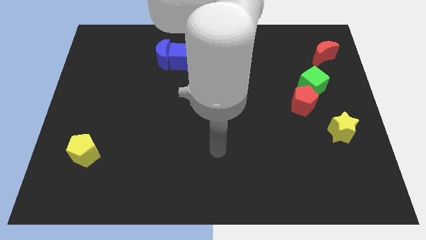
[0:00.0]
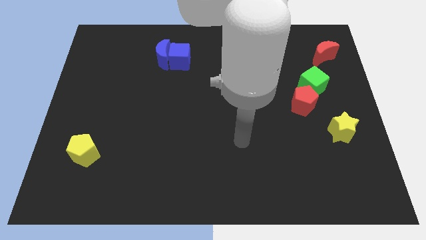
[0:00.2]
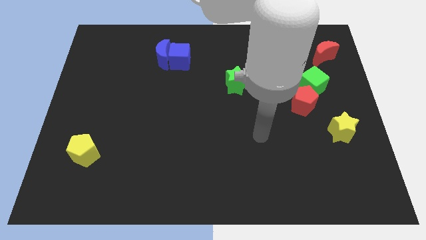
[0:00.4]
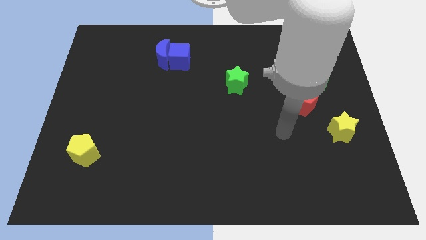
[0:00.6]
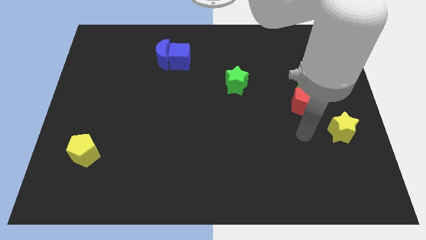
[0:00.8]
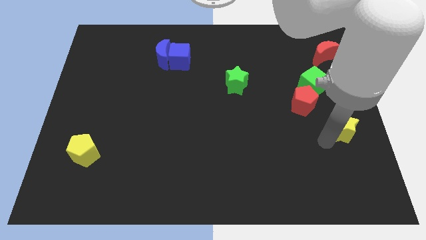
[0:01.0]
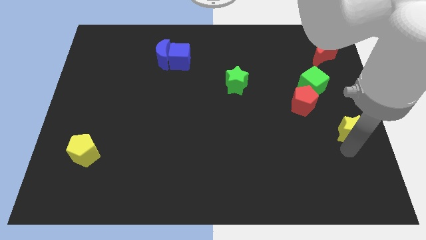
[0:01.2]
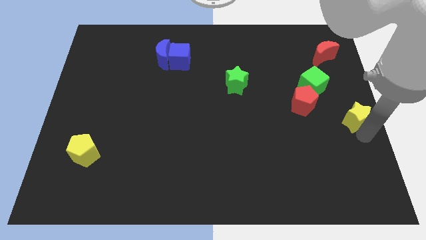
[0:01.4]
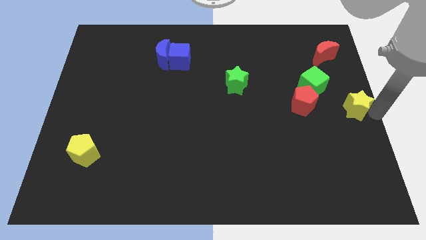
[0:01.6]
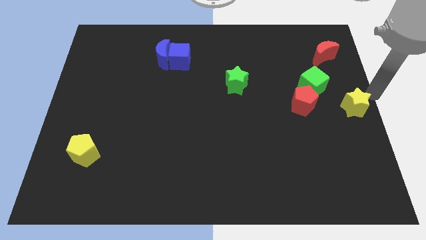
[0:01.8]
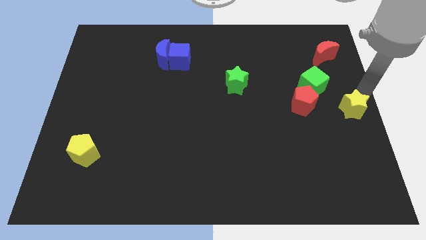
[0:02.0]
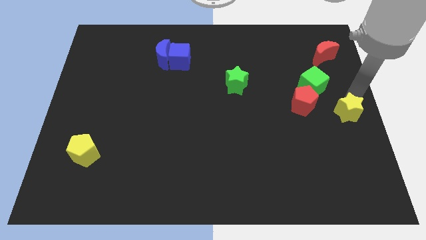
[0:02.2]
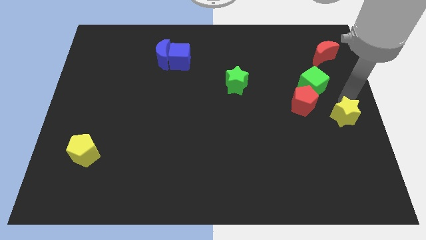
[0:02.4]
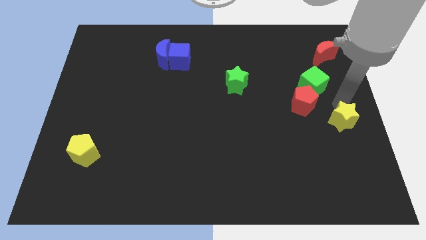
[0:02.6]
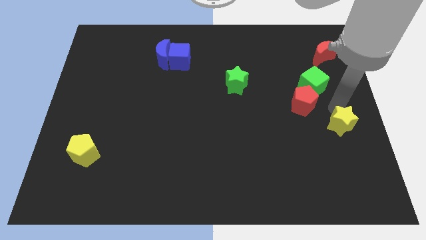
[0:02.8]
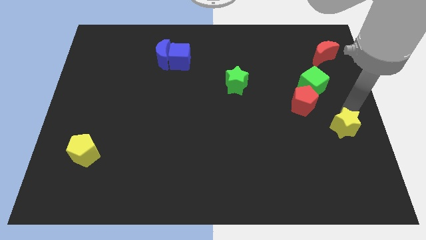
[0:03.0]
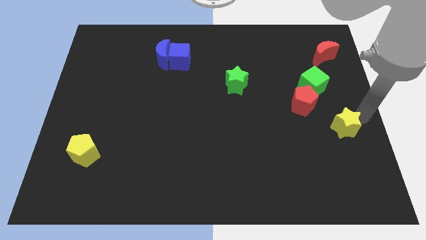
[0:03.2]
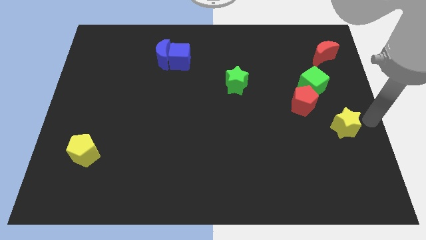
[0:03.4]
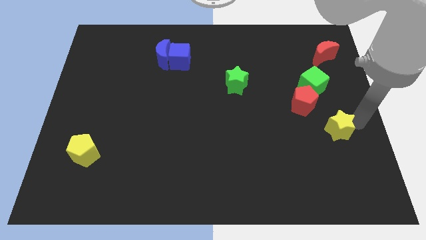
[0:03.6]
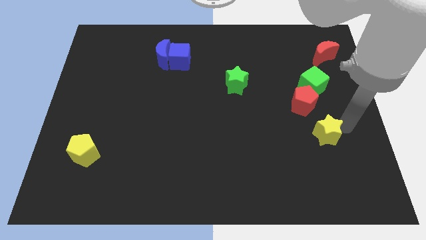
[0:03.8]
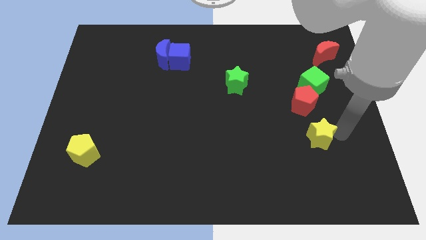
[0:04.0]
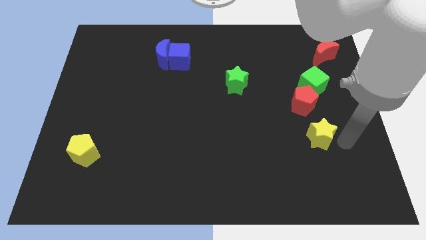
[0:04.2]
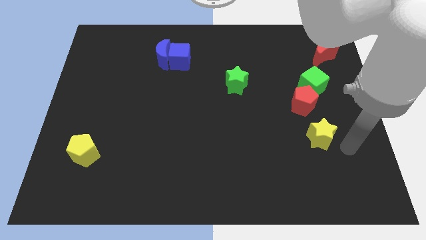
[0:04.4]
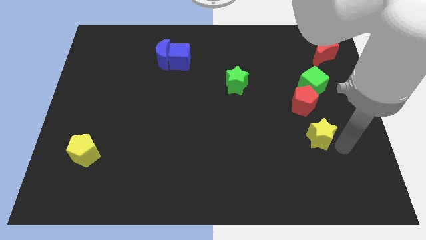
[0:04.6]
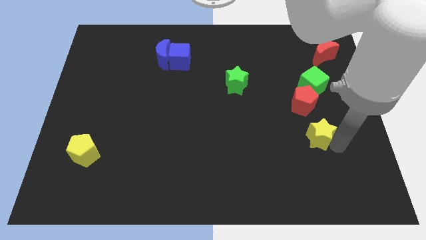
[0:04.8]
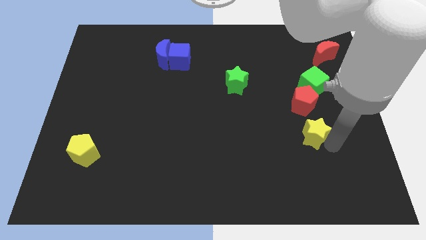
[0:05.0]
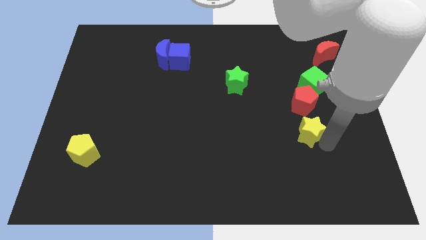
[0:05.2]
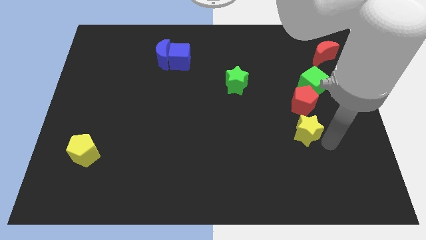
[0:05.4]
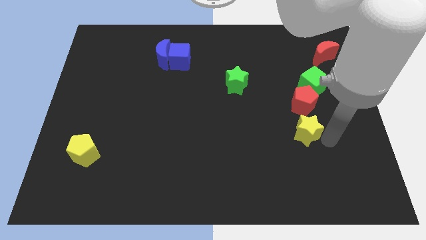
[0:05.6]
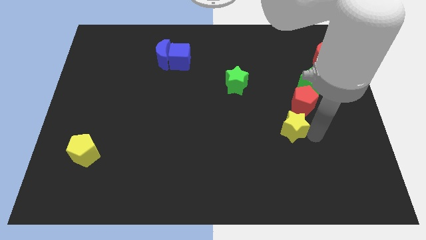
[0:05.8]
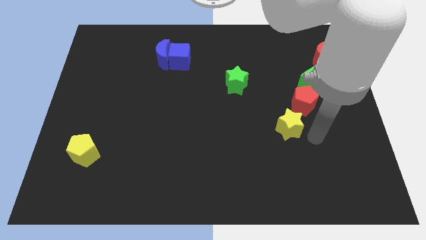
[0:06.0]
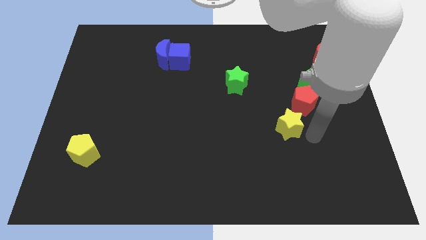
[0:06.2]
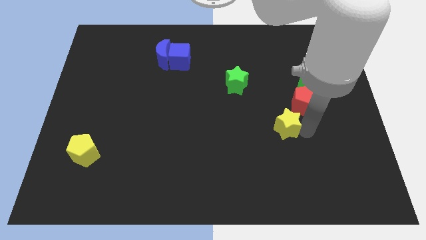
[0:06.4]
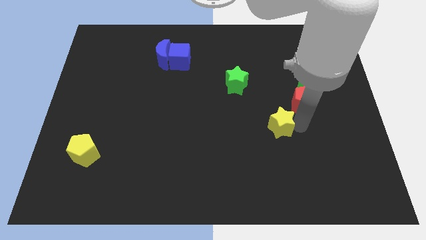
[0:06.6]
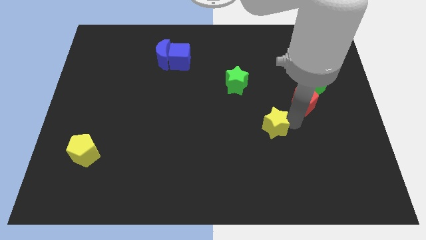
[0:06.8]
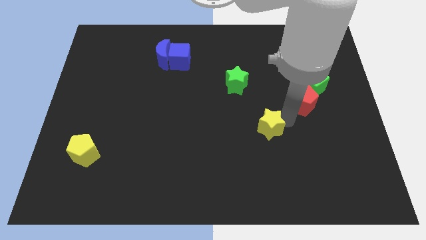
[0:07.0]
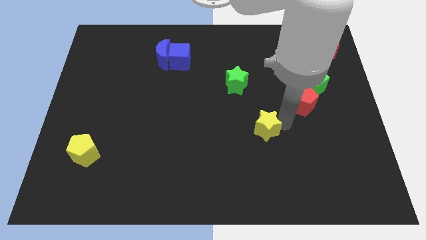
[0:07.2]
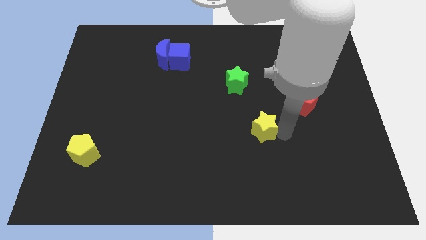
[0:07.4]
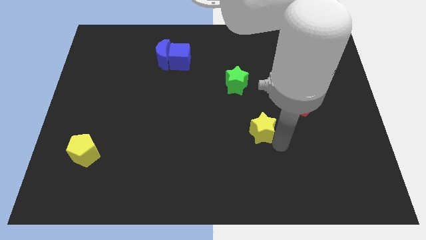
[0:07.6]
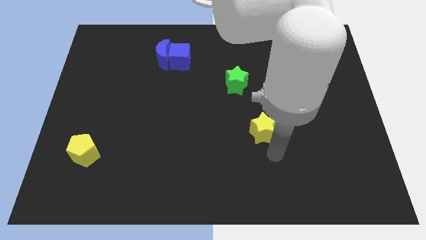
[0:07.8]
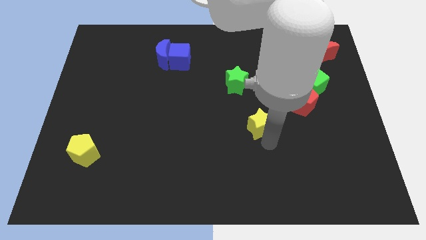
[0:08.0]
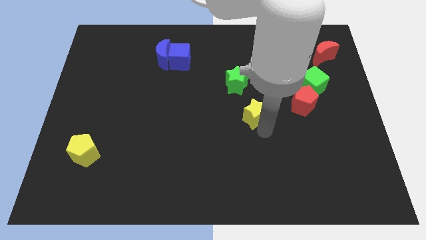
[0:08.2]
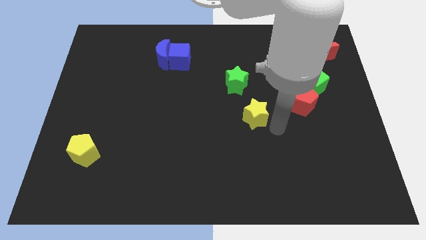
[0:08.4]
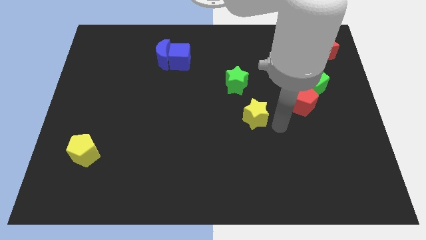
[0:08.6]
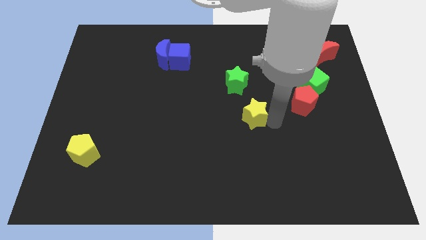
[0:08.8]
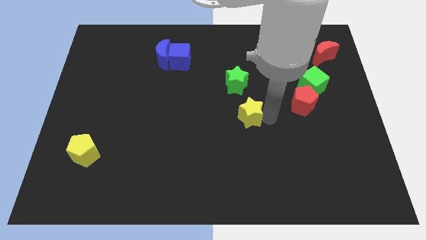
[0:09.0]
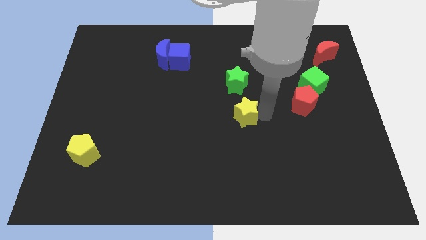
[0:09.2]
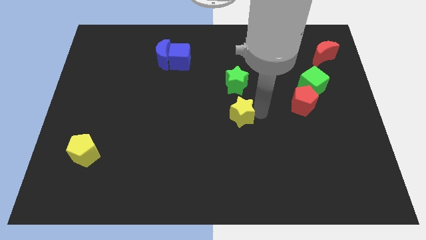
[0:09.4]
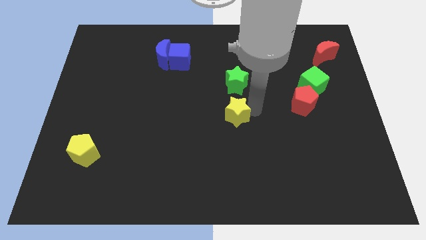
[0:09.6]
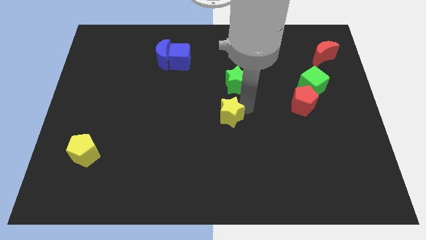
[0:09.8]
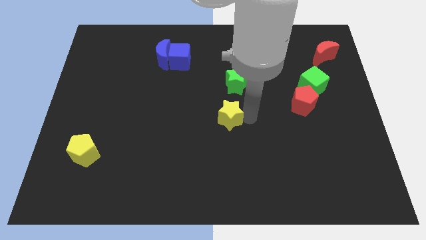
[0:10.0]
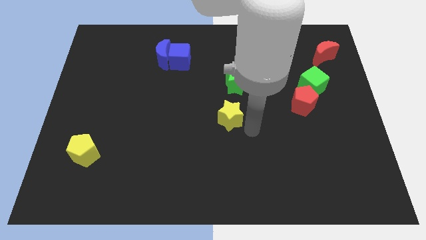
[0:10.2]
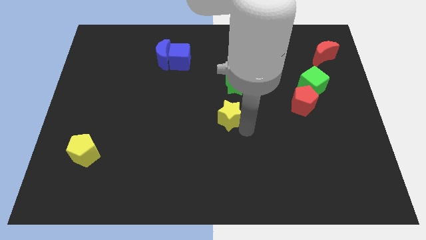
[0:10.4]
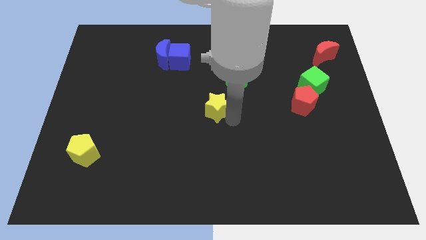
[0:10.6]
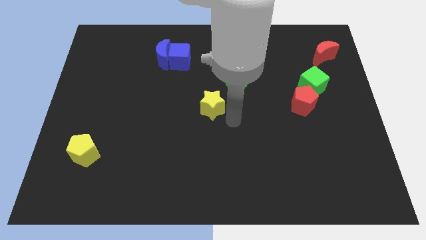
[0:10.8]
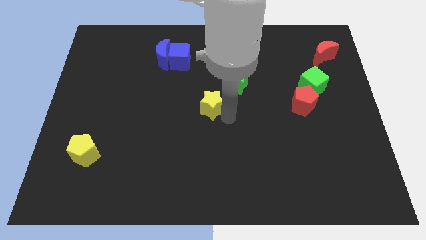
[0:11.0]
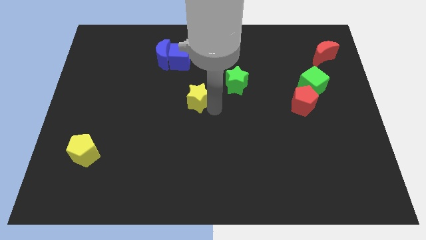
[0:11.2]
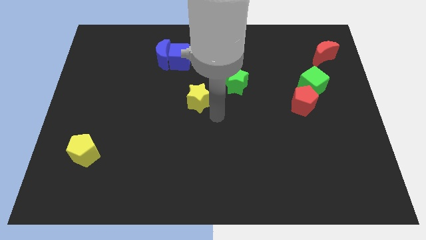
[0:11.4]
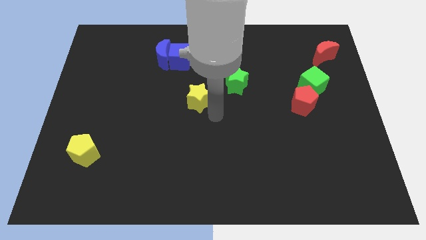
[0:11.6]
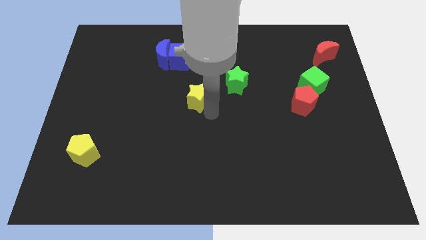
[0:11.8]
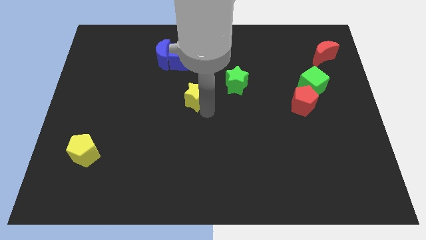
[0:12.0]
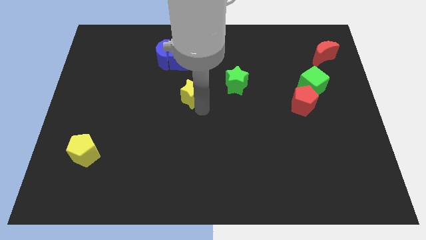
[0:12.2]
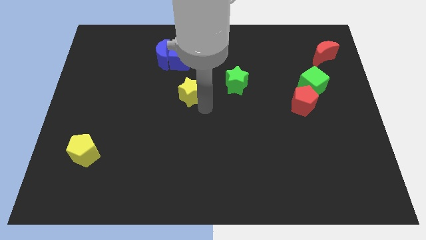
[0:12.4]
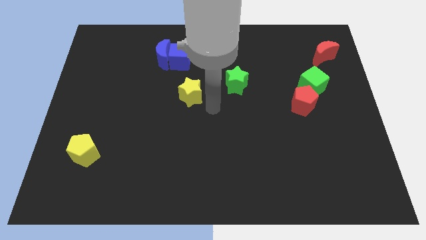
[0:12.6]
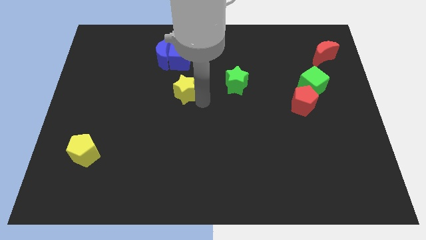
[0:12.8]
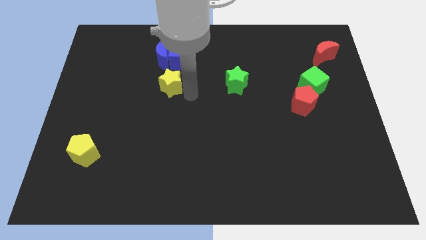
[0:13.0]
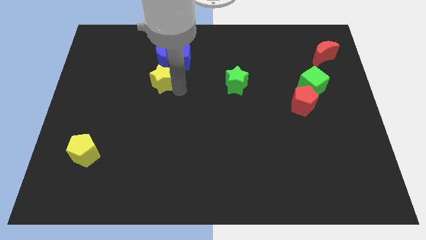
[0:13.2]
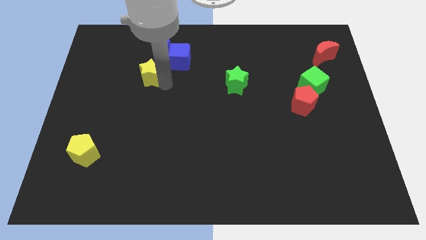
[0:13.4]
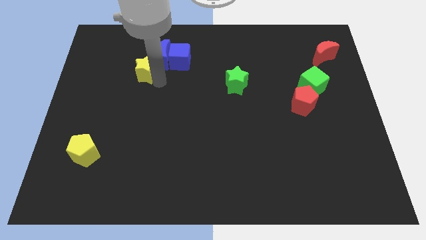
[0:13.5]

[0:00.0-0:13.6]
slide the yellow star left of the blue cube

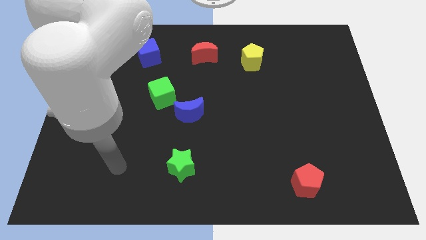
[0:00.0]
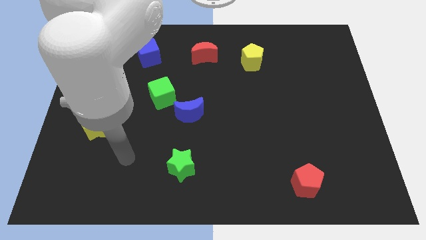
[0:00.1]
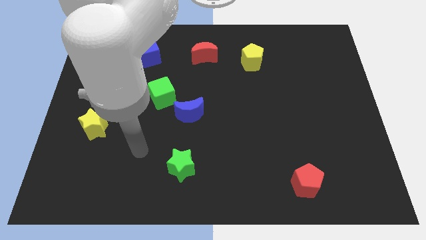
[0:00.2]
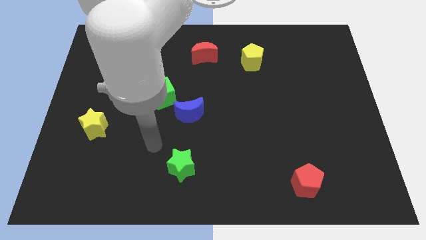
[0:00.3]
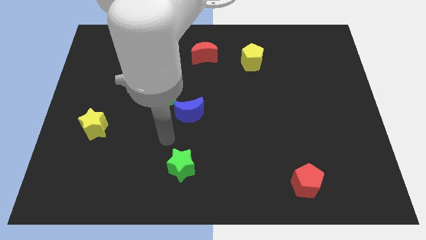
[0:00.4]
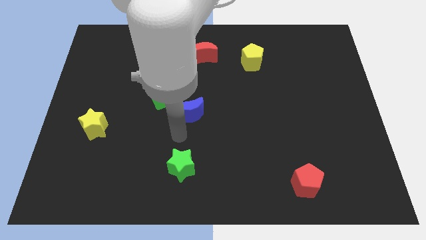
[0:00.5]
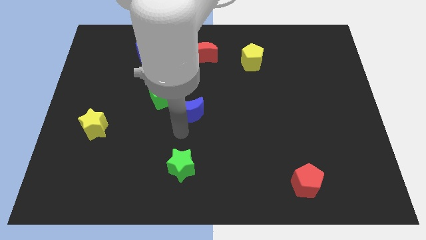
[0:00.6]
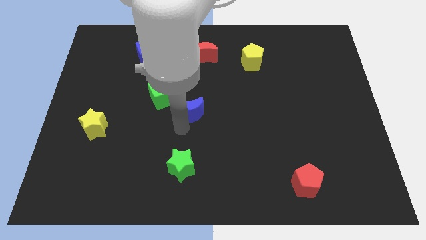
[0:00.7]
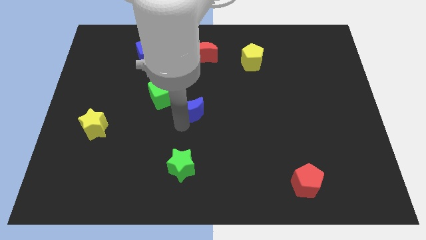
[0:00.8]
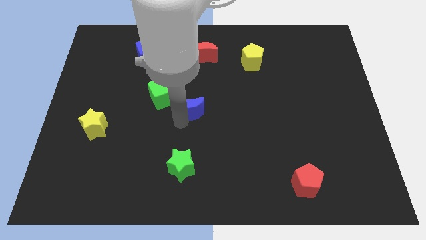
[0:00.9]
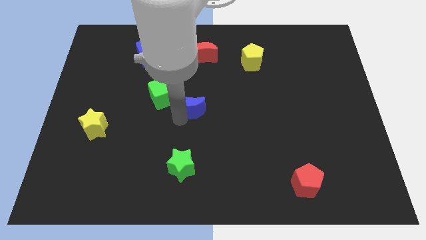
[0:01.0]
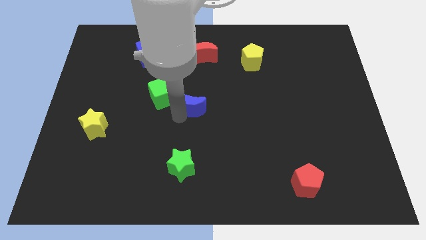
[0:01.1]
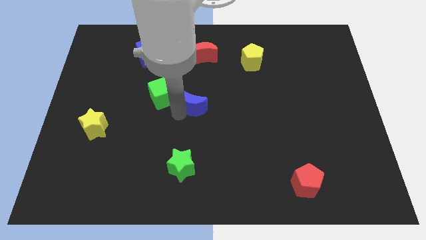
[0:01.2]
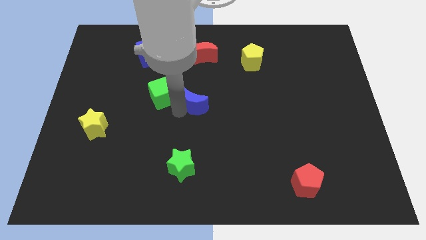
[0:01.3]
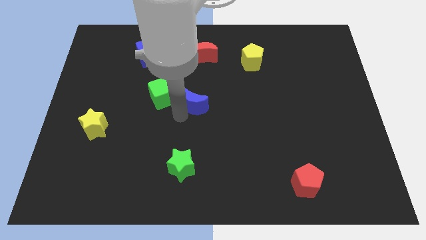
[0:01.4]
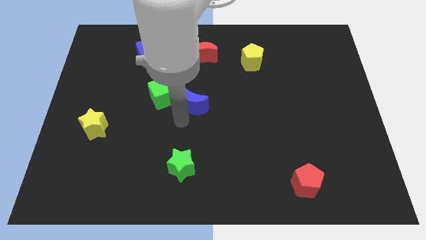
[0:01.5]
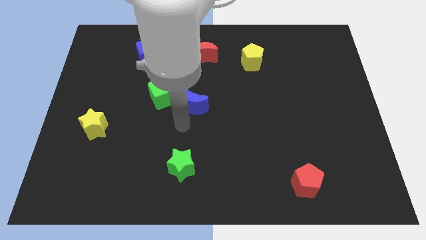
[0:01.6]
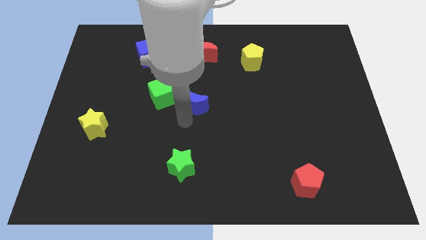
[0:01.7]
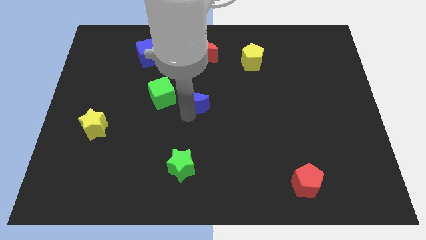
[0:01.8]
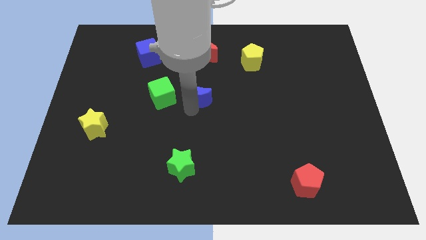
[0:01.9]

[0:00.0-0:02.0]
move the blue moon to the bottom of the red moon
